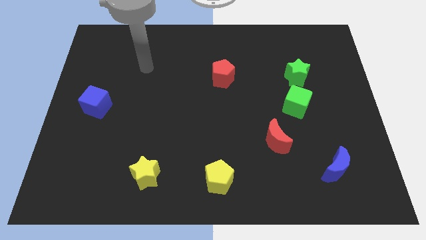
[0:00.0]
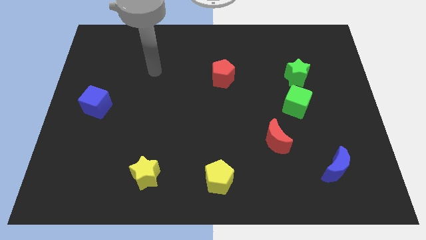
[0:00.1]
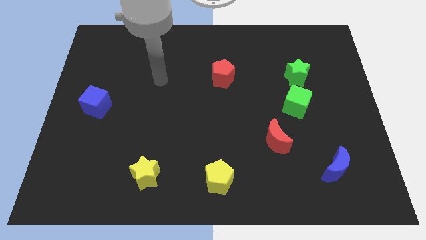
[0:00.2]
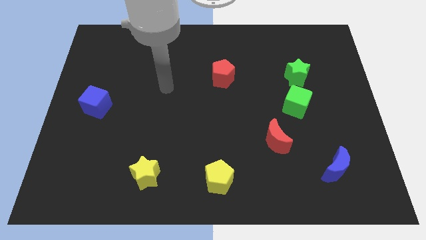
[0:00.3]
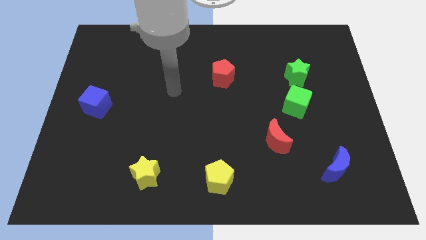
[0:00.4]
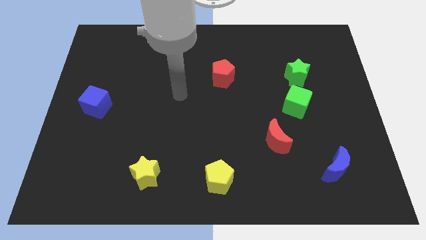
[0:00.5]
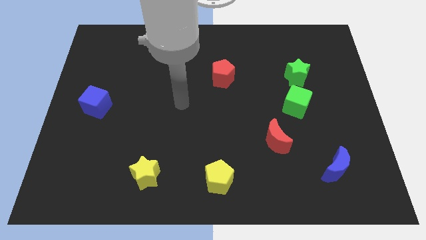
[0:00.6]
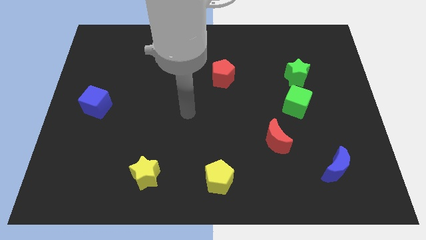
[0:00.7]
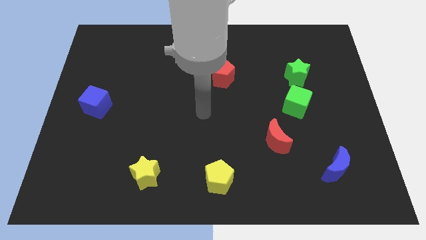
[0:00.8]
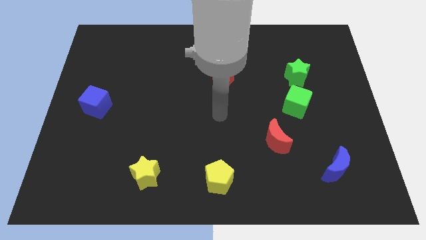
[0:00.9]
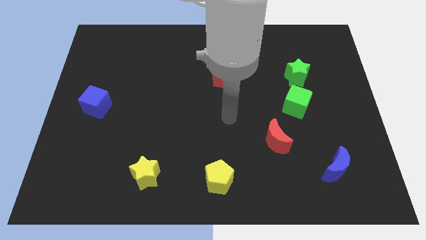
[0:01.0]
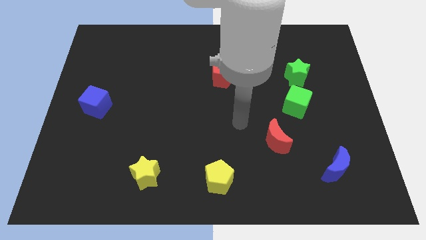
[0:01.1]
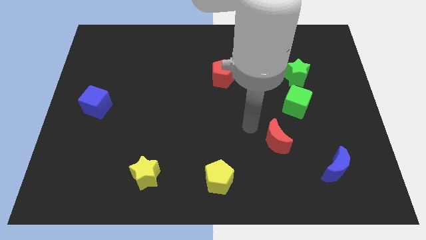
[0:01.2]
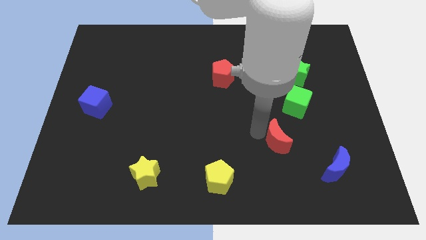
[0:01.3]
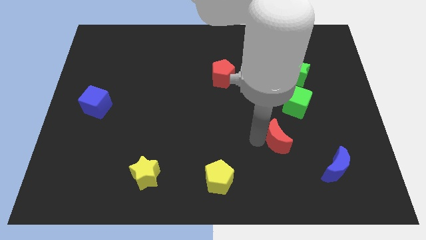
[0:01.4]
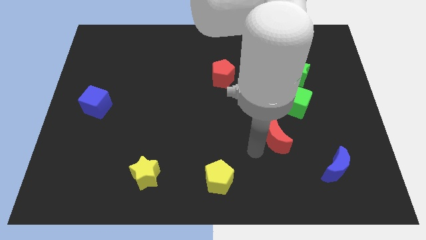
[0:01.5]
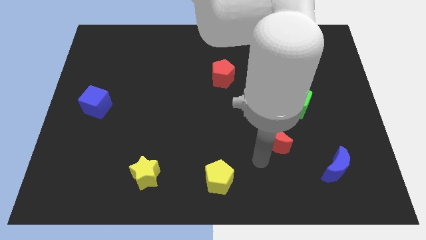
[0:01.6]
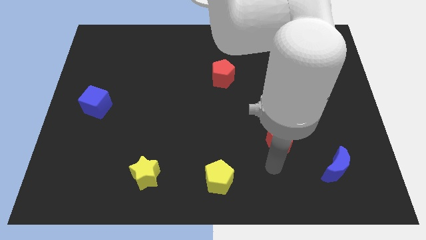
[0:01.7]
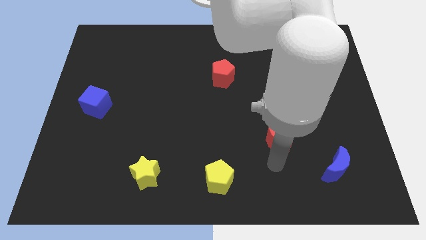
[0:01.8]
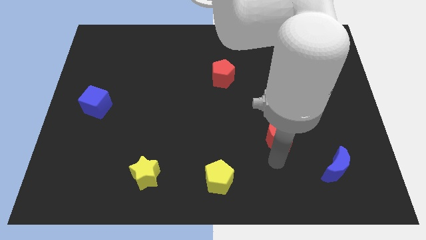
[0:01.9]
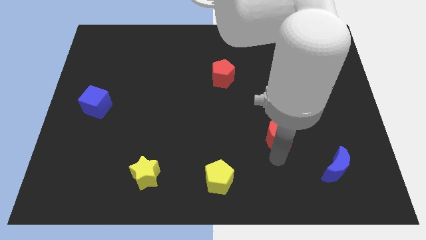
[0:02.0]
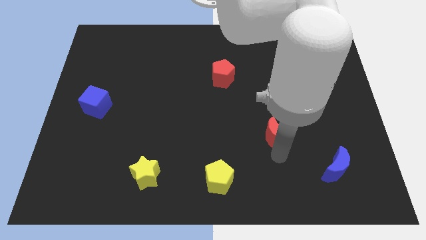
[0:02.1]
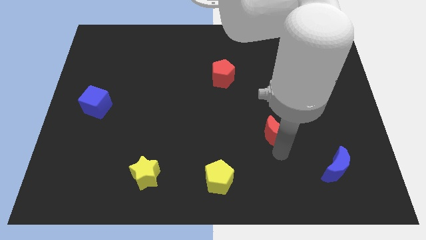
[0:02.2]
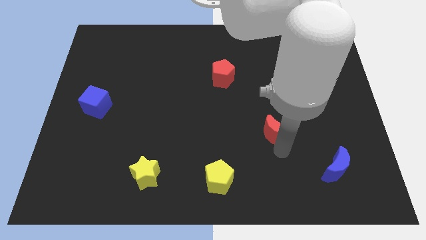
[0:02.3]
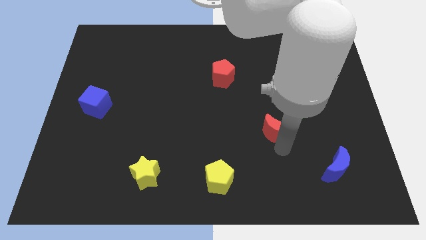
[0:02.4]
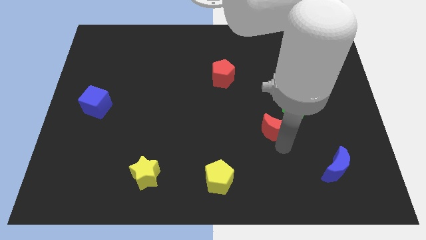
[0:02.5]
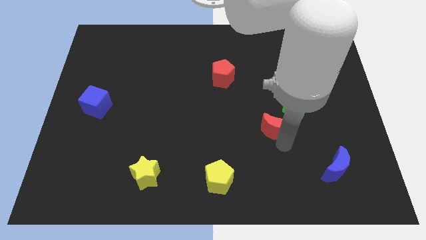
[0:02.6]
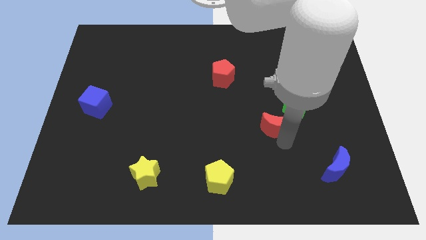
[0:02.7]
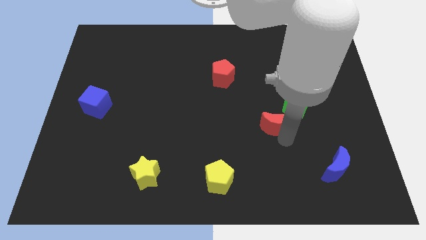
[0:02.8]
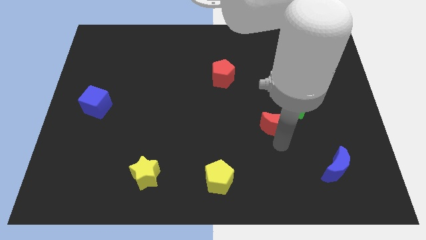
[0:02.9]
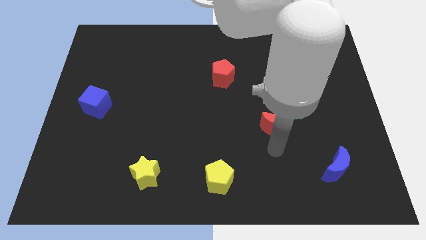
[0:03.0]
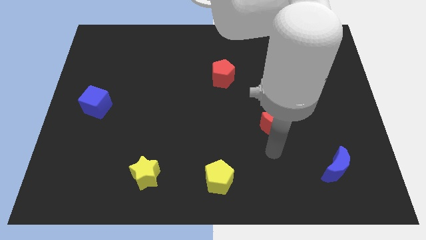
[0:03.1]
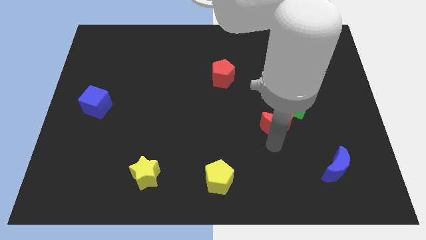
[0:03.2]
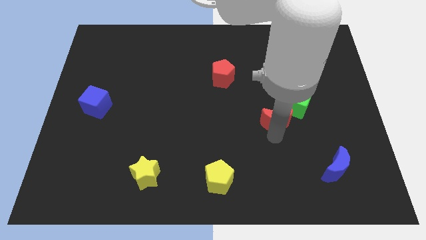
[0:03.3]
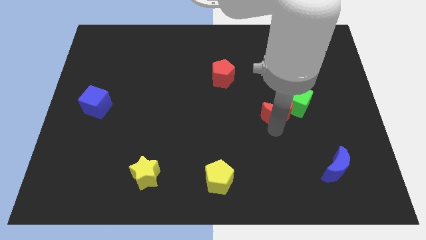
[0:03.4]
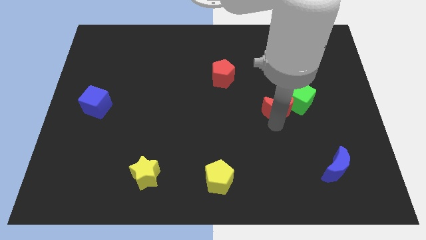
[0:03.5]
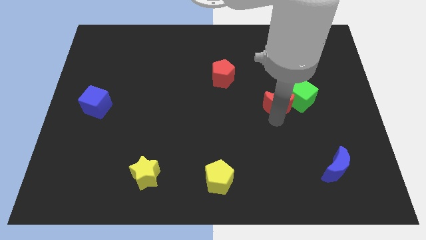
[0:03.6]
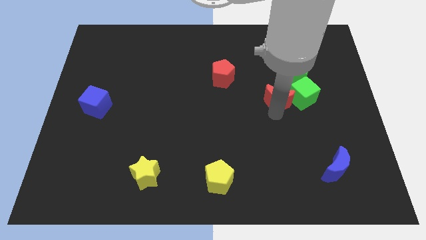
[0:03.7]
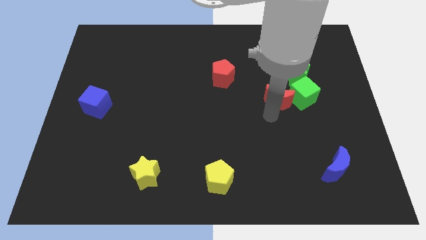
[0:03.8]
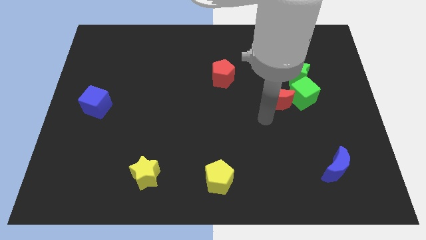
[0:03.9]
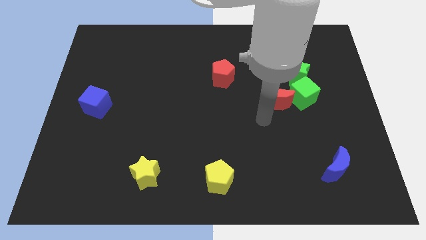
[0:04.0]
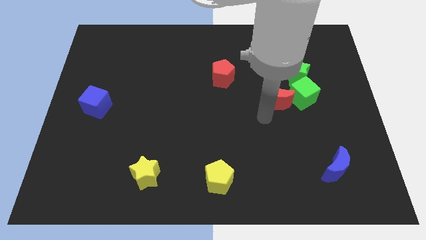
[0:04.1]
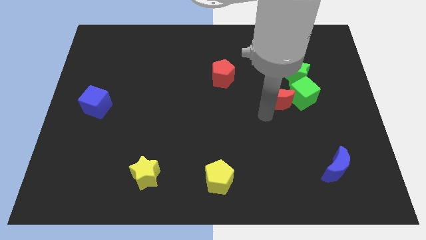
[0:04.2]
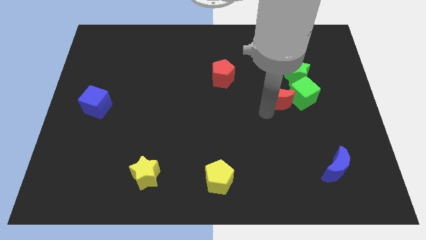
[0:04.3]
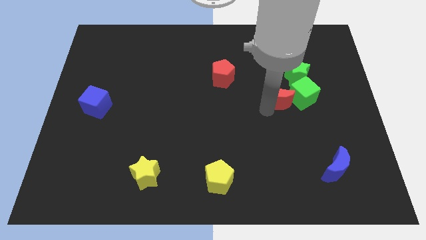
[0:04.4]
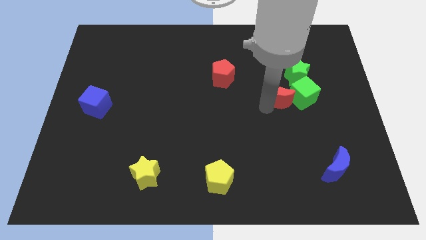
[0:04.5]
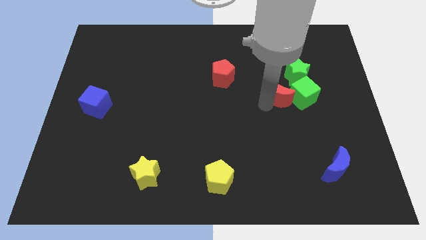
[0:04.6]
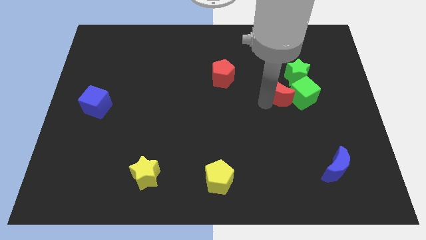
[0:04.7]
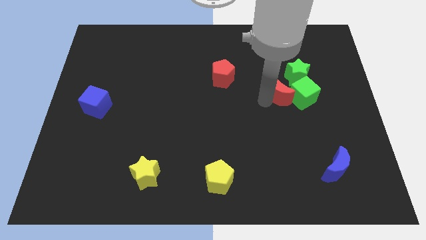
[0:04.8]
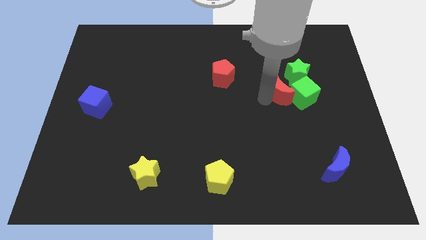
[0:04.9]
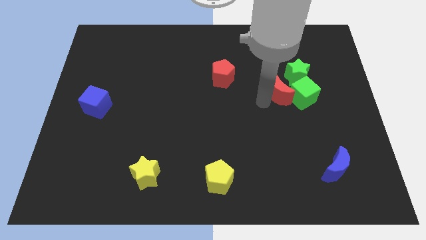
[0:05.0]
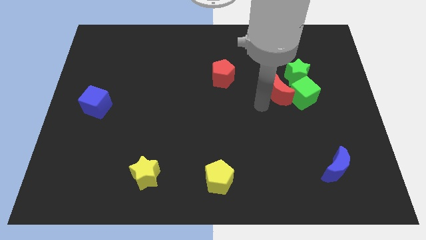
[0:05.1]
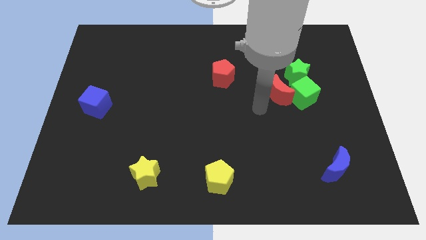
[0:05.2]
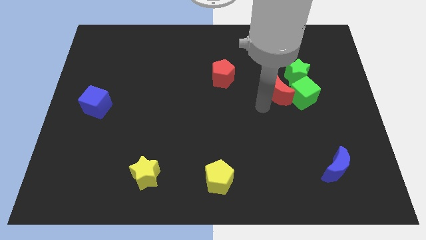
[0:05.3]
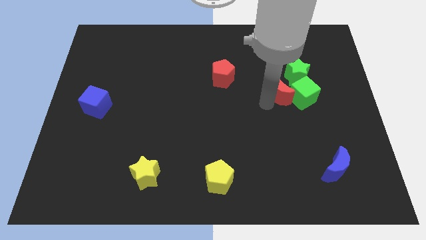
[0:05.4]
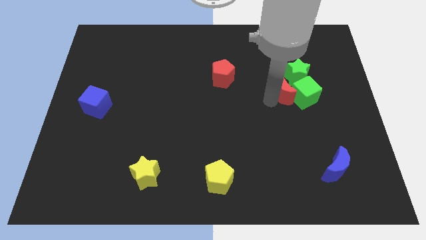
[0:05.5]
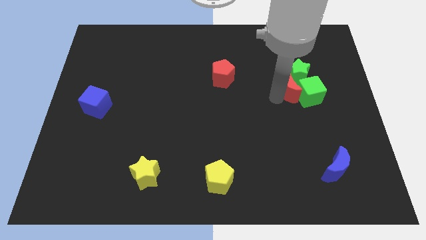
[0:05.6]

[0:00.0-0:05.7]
move the red moon towards the green star

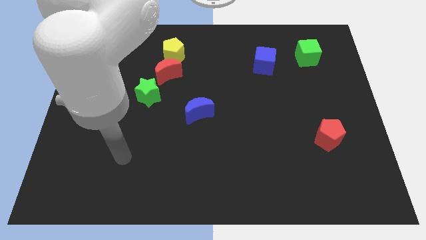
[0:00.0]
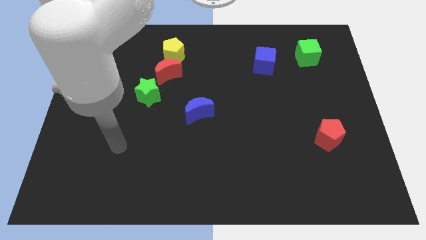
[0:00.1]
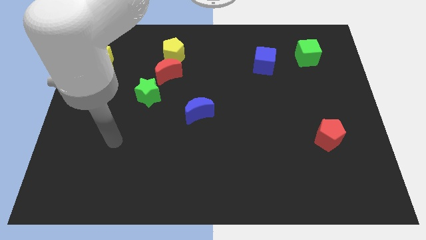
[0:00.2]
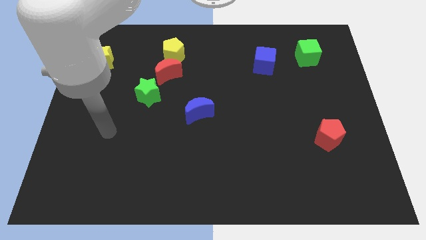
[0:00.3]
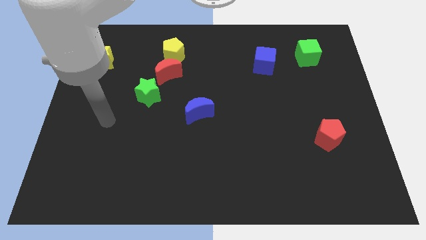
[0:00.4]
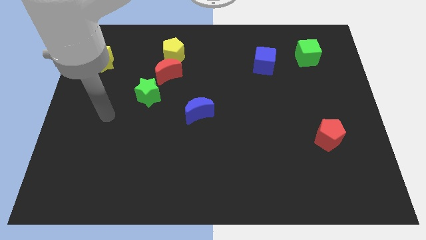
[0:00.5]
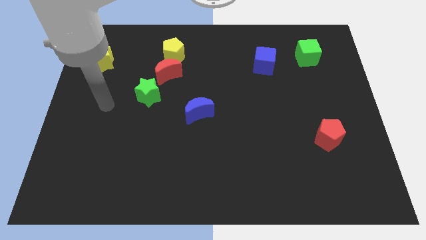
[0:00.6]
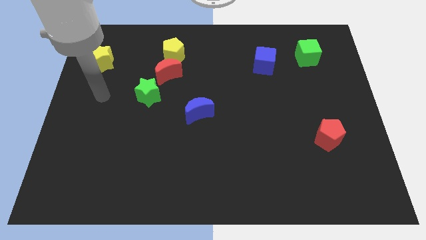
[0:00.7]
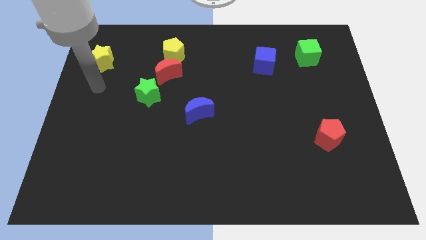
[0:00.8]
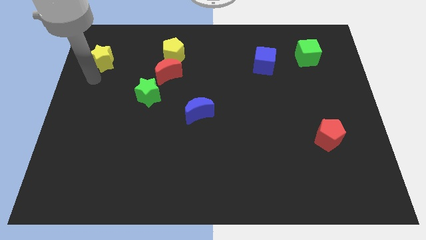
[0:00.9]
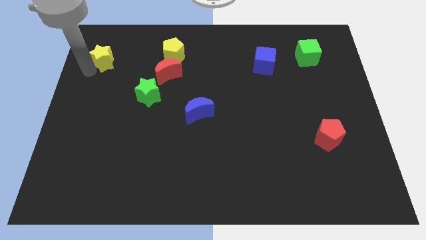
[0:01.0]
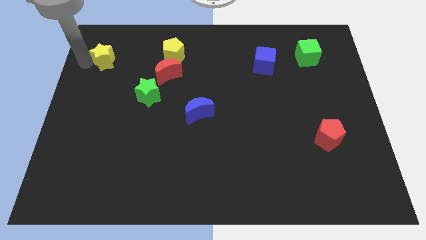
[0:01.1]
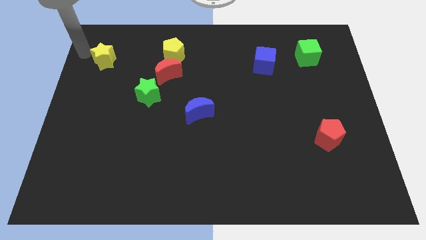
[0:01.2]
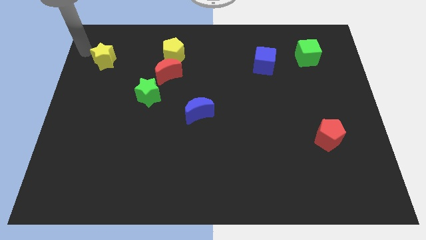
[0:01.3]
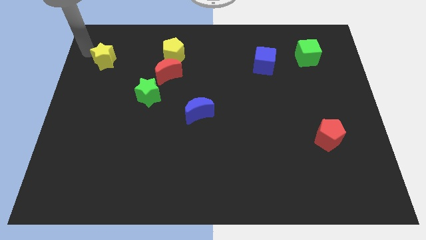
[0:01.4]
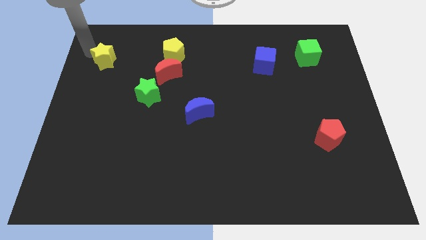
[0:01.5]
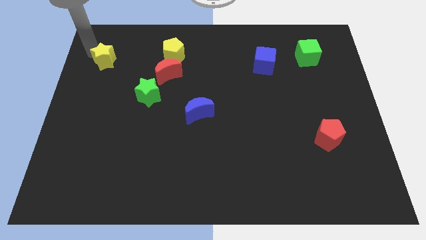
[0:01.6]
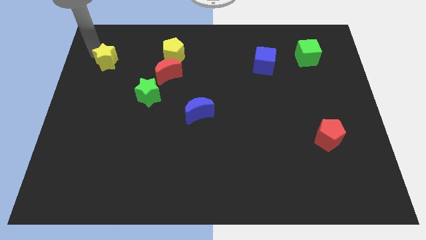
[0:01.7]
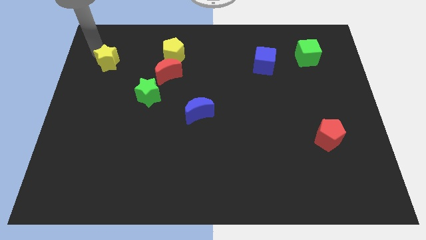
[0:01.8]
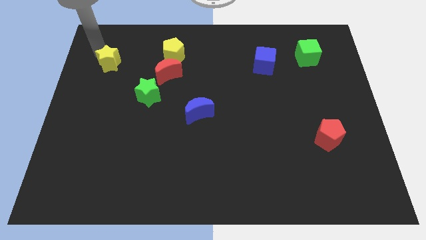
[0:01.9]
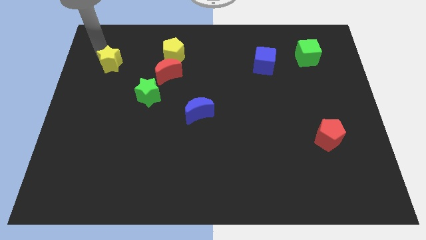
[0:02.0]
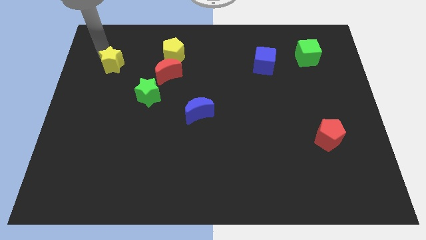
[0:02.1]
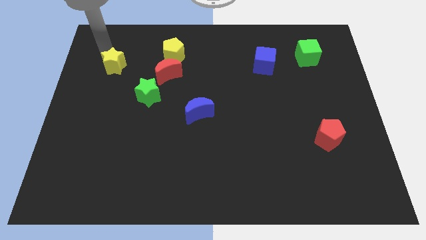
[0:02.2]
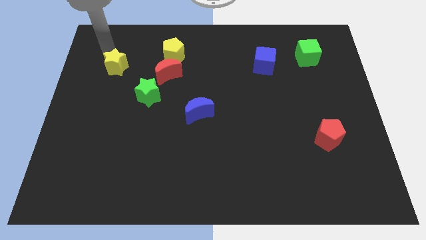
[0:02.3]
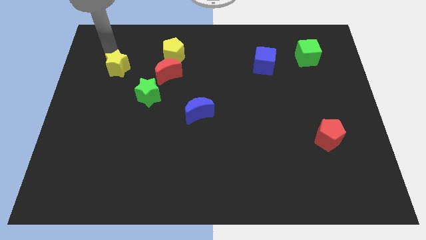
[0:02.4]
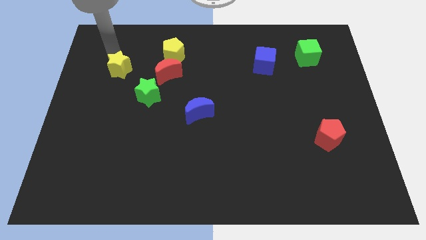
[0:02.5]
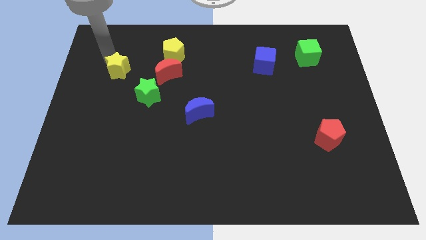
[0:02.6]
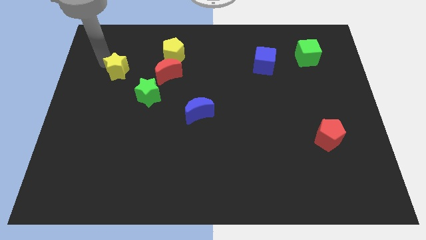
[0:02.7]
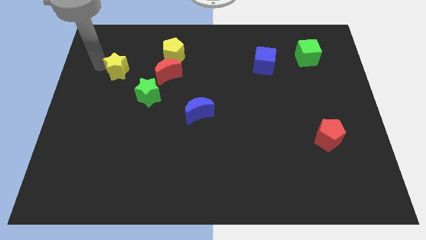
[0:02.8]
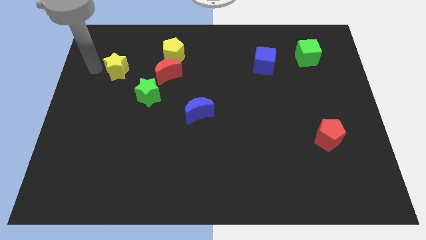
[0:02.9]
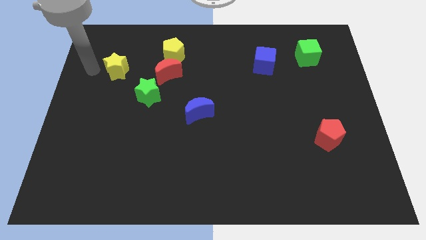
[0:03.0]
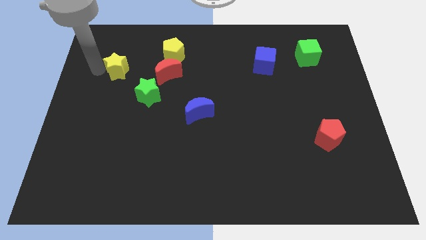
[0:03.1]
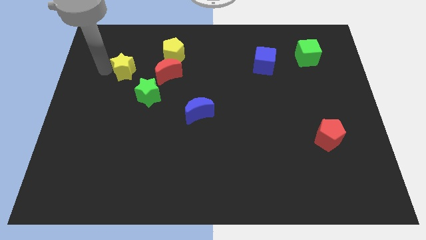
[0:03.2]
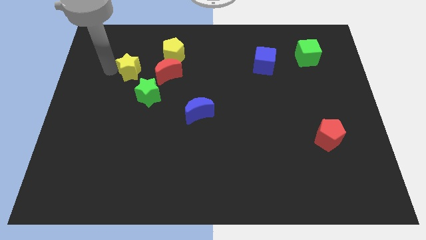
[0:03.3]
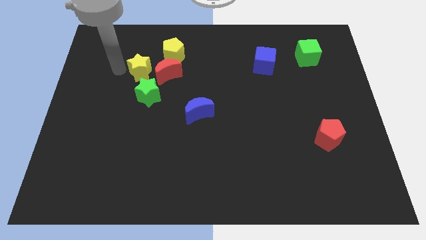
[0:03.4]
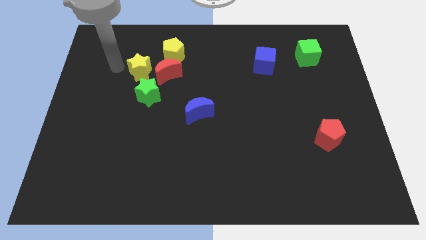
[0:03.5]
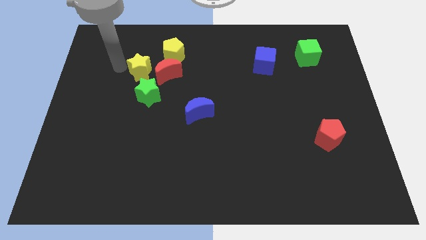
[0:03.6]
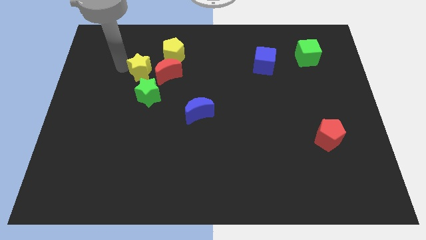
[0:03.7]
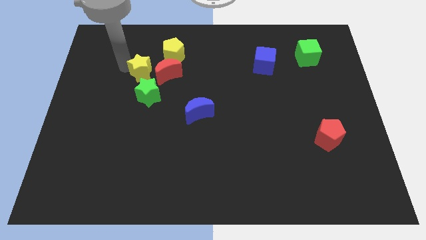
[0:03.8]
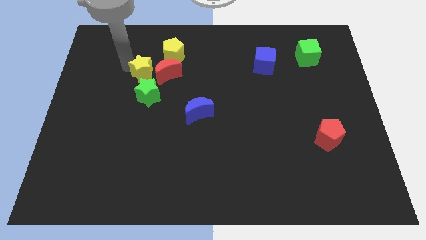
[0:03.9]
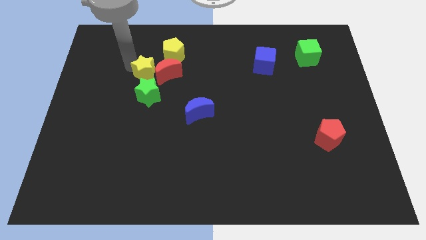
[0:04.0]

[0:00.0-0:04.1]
put the yellow star next to the red moon
